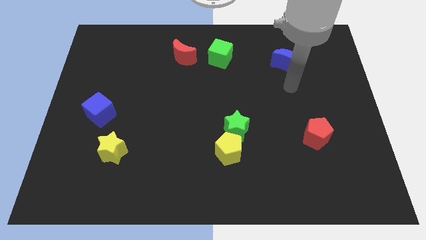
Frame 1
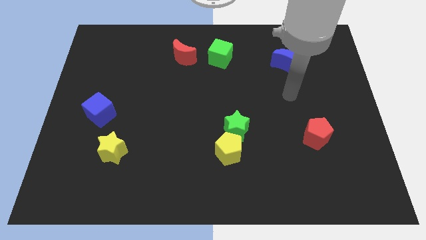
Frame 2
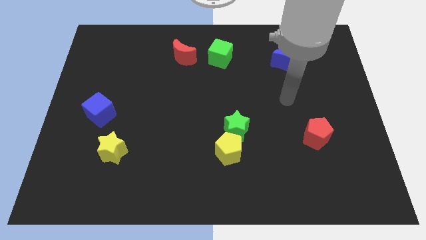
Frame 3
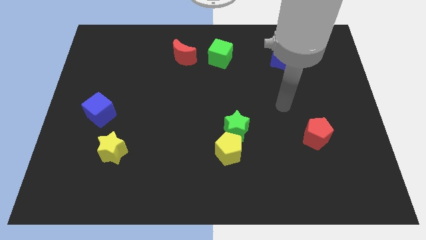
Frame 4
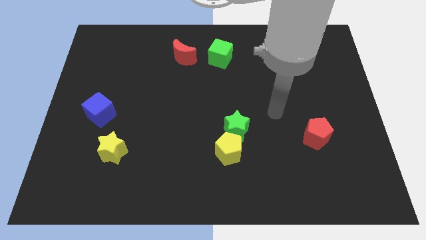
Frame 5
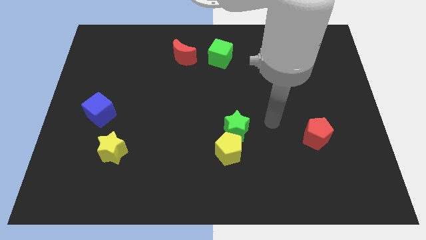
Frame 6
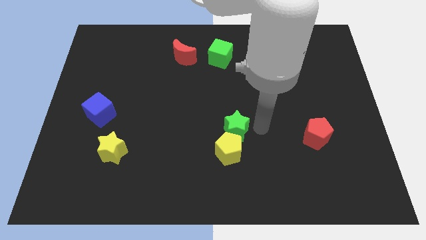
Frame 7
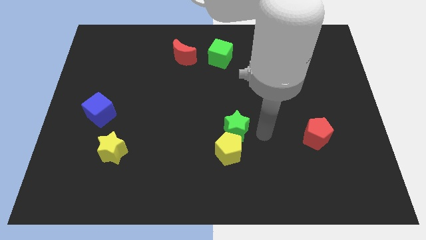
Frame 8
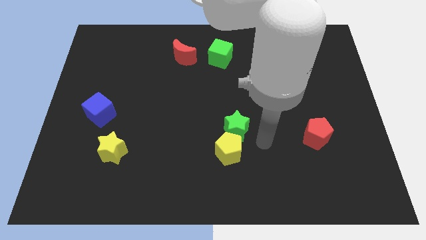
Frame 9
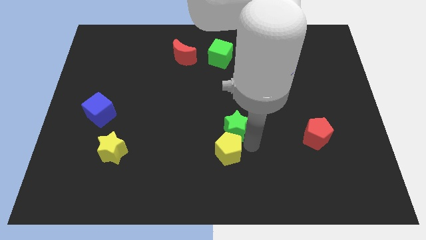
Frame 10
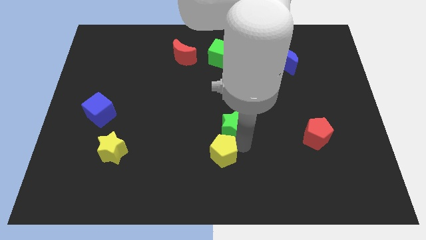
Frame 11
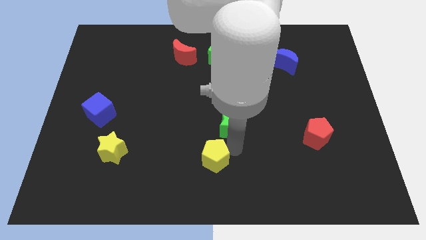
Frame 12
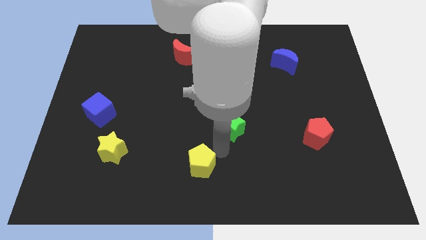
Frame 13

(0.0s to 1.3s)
separate the green star from the yellow pentagon

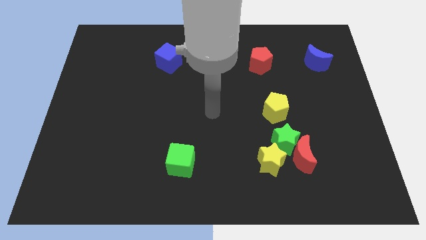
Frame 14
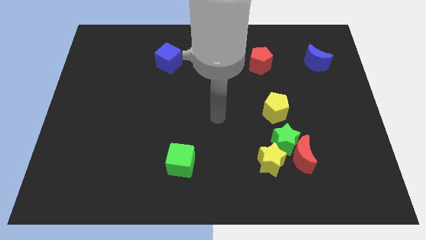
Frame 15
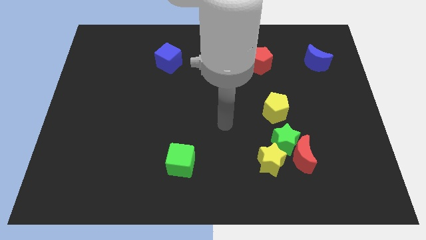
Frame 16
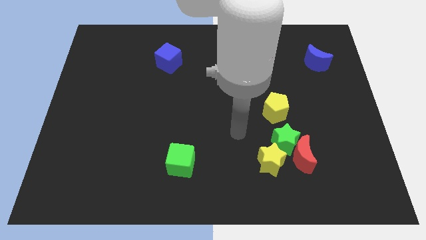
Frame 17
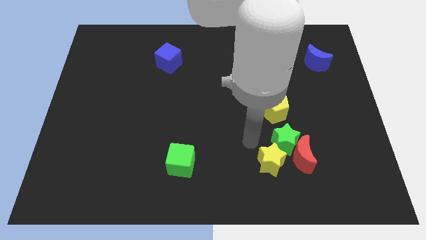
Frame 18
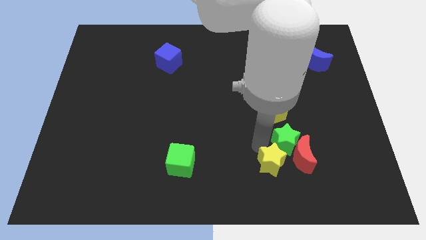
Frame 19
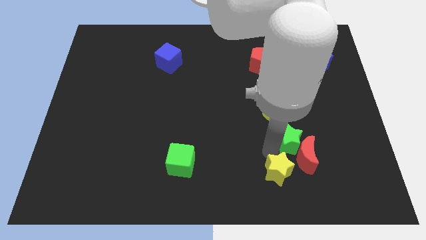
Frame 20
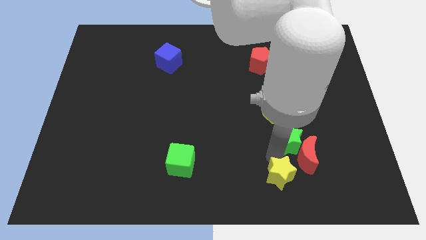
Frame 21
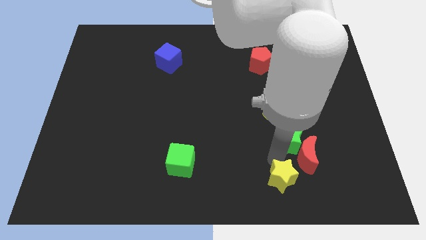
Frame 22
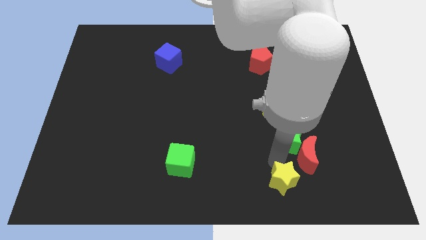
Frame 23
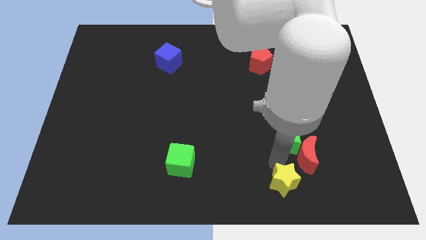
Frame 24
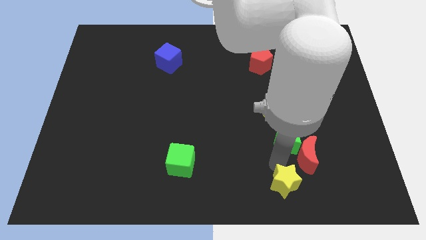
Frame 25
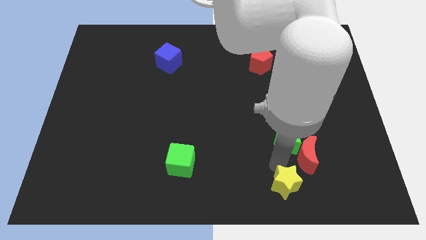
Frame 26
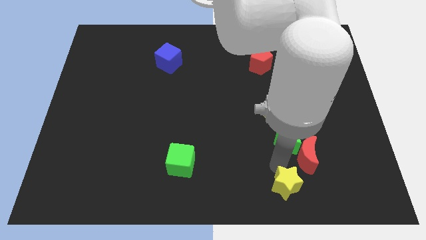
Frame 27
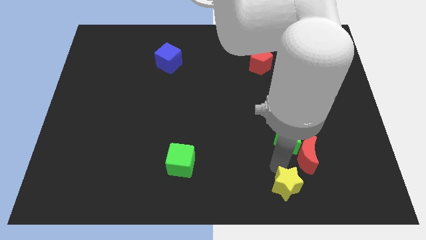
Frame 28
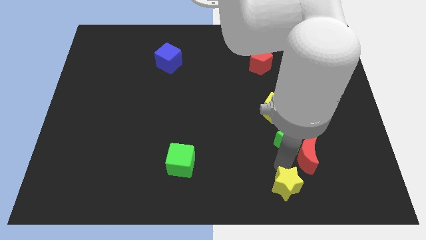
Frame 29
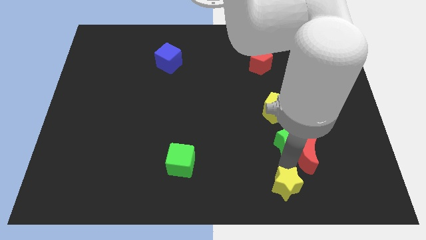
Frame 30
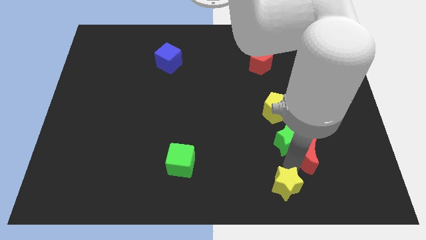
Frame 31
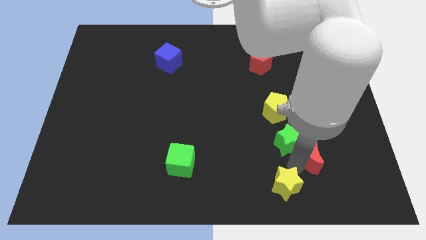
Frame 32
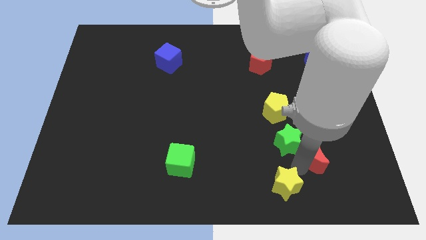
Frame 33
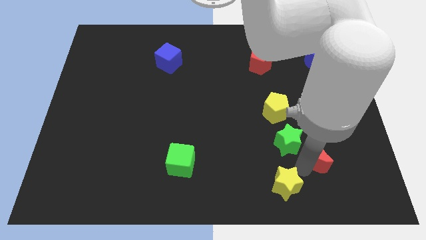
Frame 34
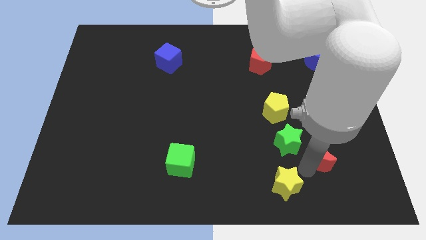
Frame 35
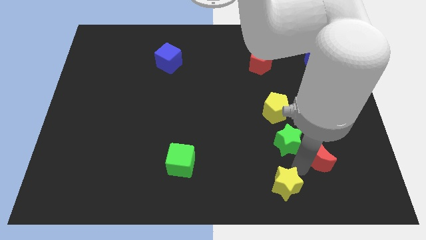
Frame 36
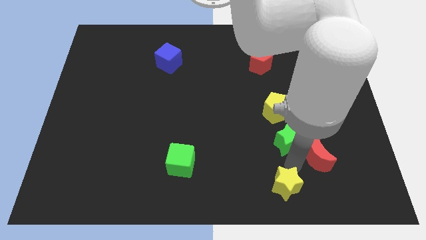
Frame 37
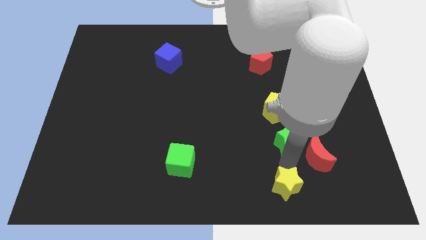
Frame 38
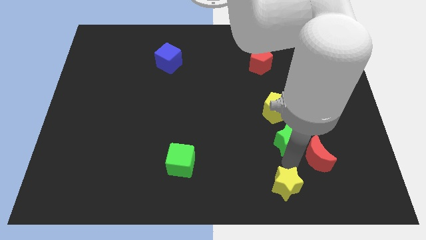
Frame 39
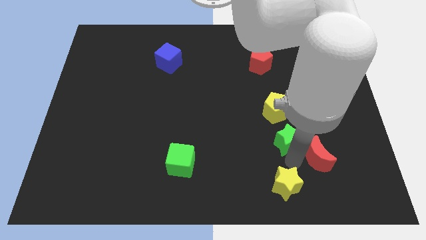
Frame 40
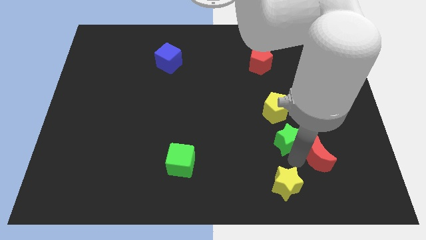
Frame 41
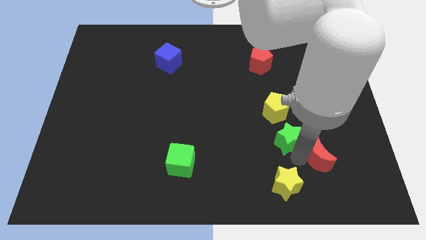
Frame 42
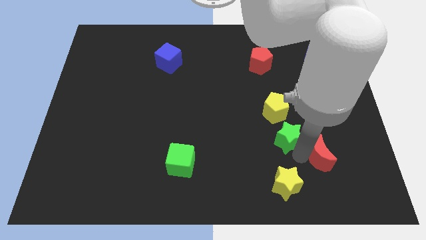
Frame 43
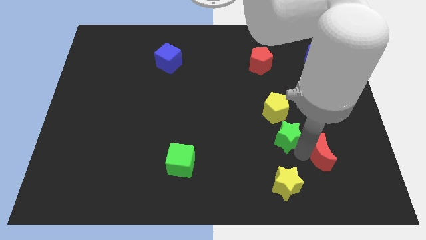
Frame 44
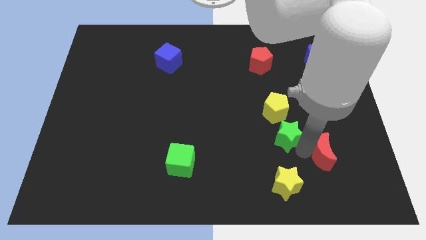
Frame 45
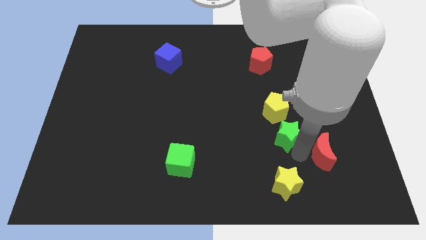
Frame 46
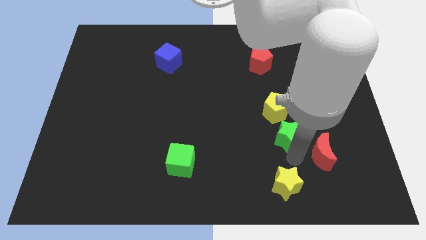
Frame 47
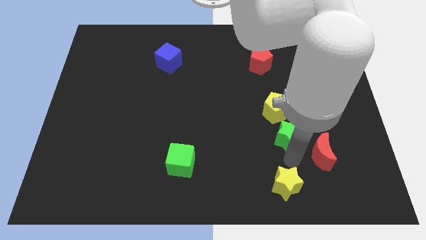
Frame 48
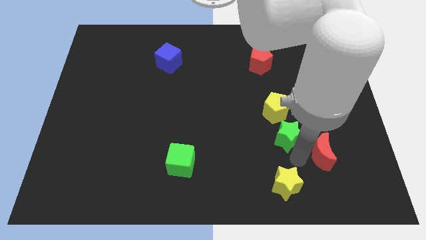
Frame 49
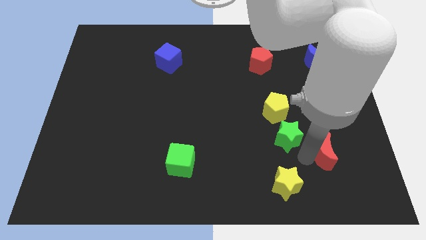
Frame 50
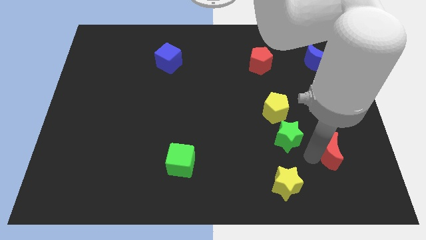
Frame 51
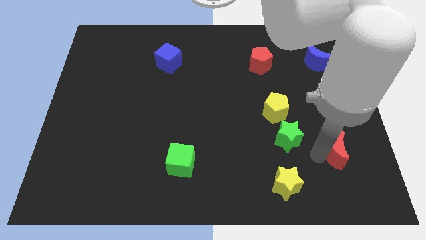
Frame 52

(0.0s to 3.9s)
move the red moon away from the green star and yellow star

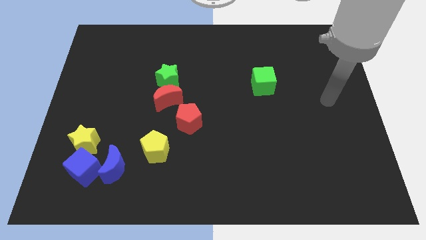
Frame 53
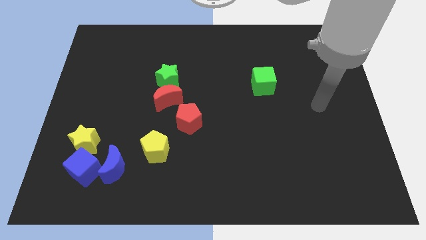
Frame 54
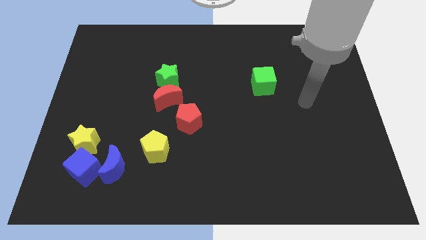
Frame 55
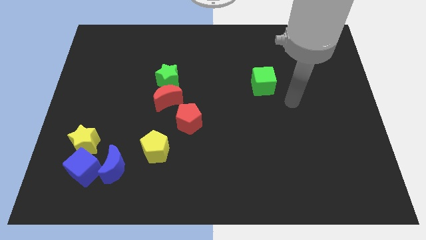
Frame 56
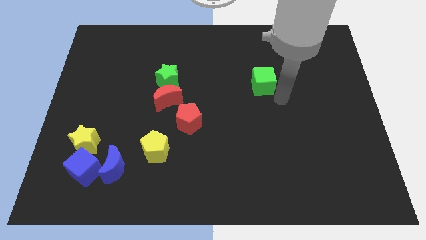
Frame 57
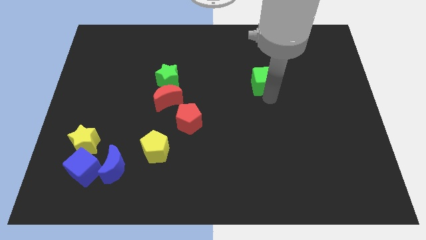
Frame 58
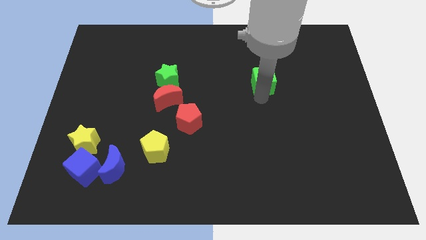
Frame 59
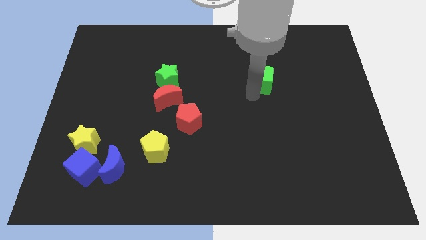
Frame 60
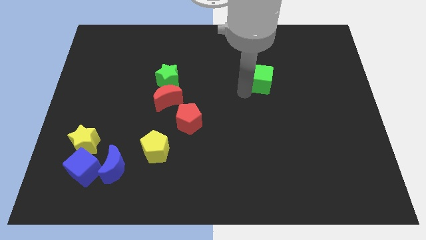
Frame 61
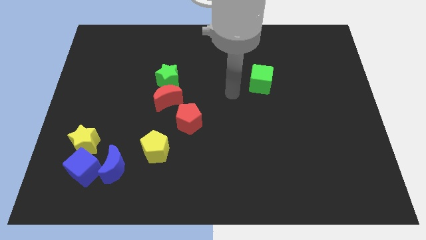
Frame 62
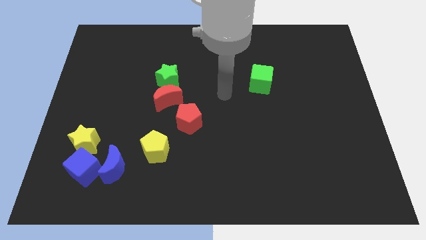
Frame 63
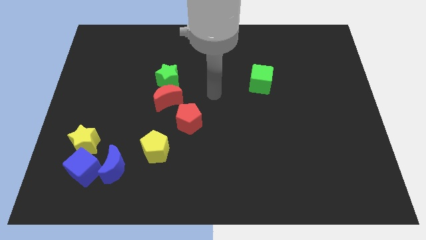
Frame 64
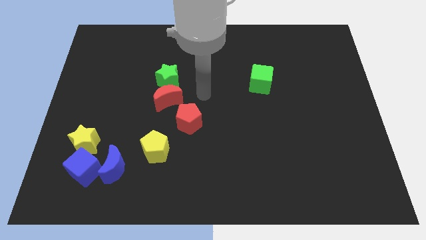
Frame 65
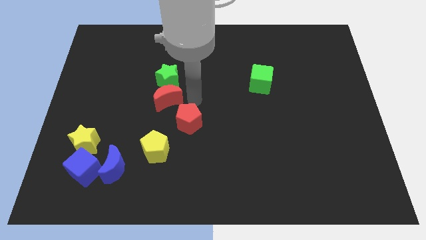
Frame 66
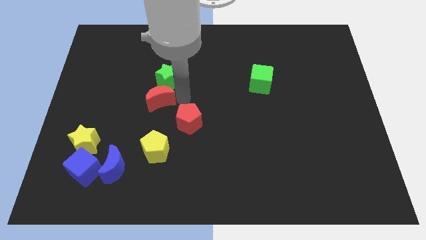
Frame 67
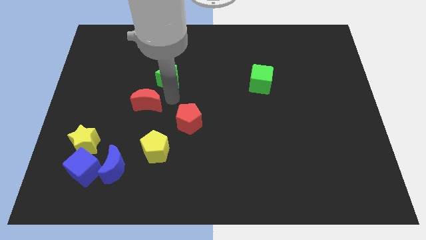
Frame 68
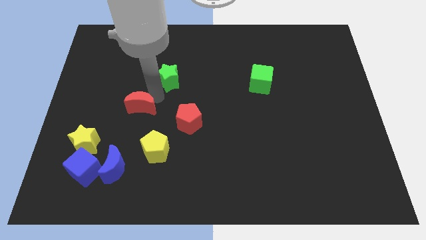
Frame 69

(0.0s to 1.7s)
separate the green star from the red moon

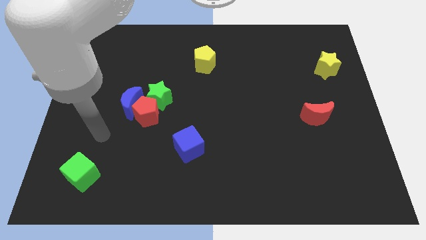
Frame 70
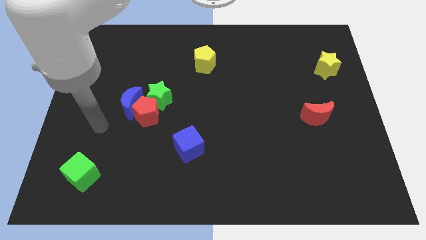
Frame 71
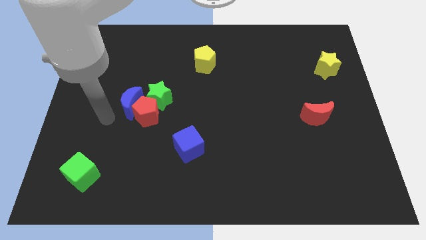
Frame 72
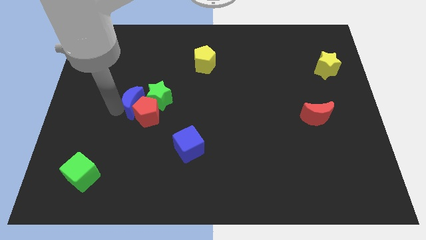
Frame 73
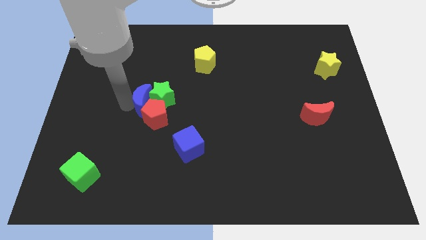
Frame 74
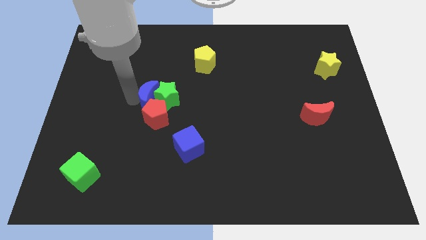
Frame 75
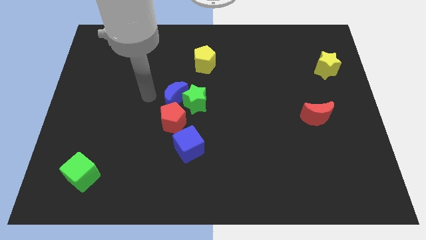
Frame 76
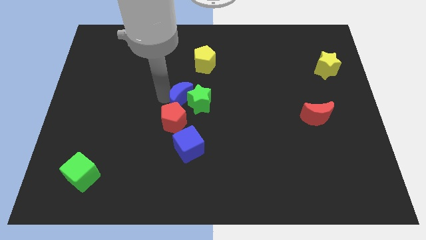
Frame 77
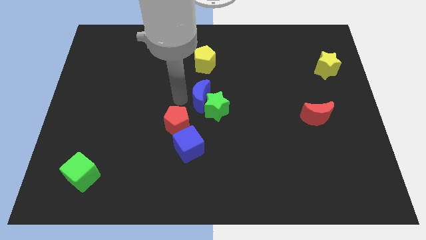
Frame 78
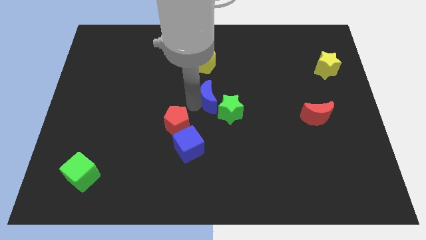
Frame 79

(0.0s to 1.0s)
separate the red pentagon from the blue moon and green star

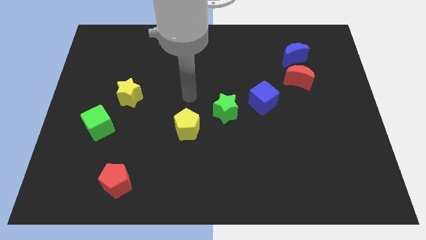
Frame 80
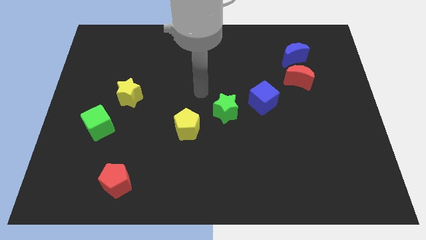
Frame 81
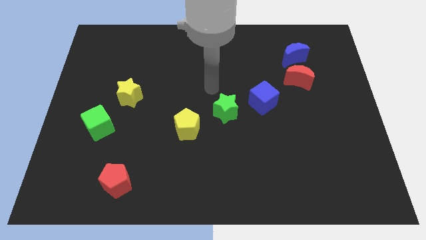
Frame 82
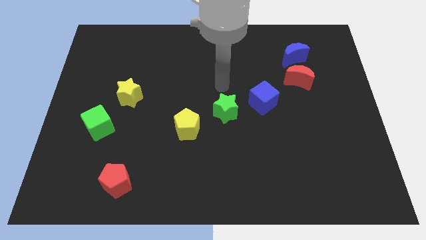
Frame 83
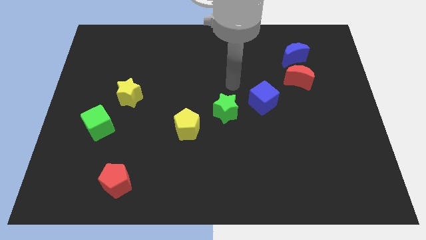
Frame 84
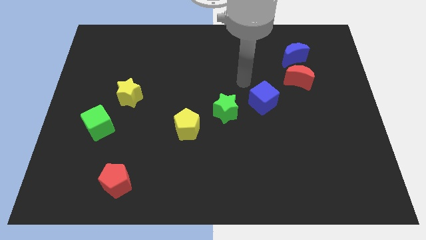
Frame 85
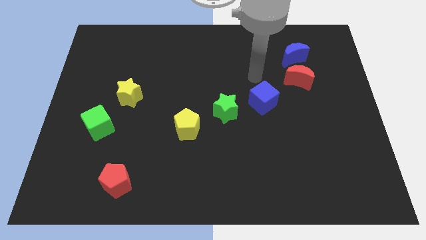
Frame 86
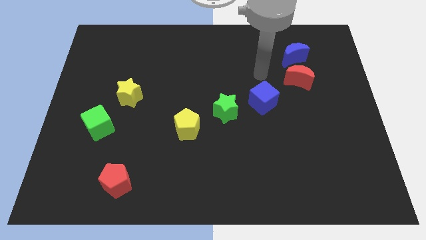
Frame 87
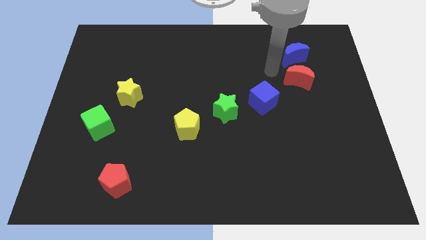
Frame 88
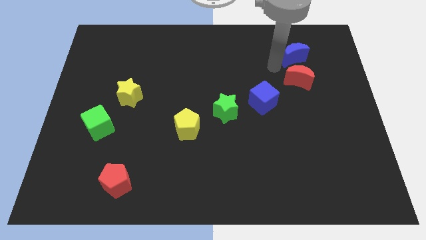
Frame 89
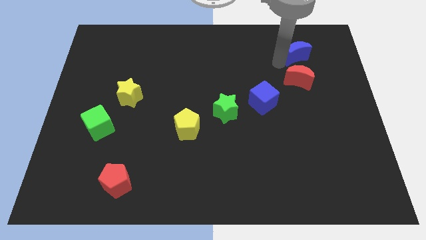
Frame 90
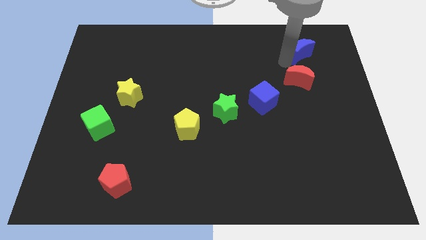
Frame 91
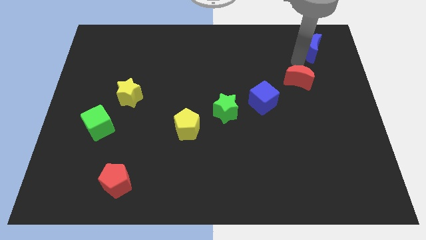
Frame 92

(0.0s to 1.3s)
pull the red moon apart from the blue moon
